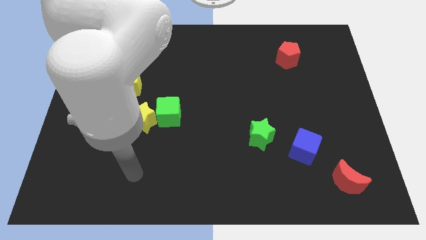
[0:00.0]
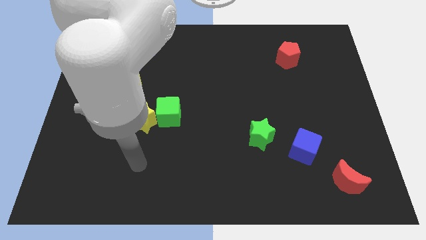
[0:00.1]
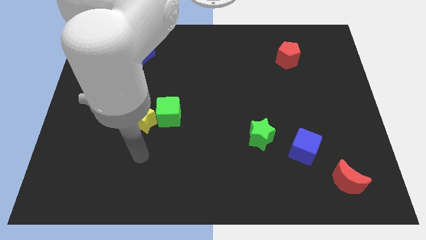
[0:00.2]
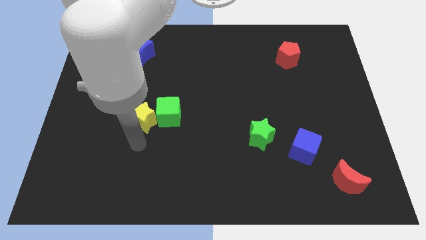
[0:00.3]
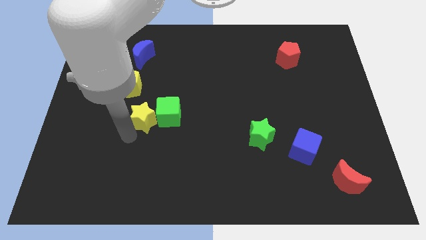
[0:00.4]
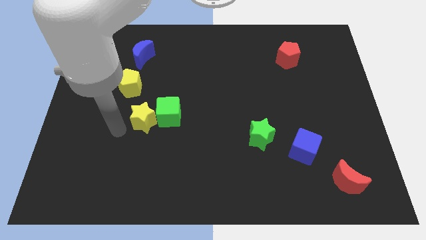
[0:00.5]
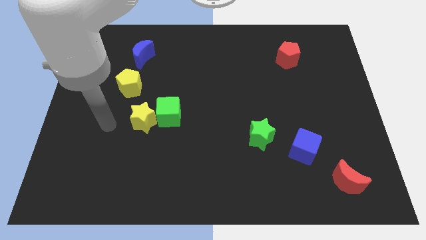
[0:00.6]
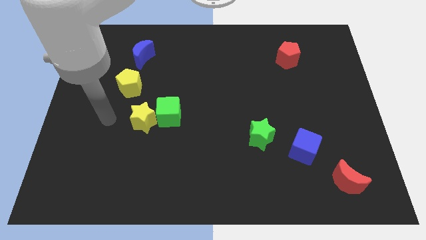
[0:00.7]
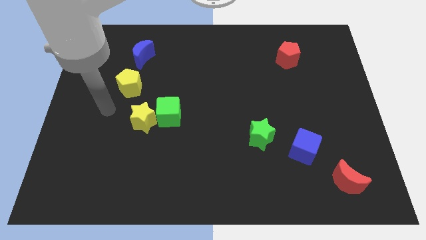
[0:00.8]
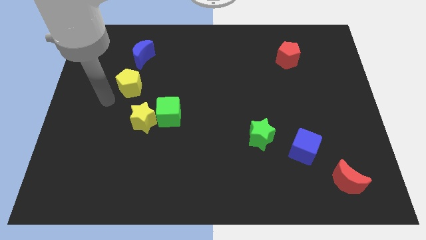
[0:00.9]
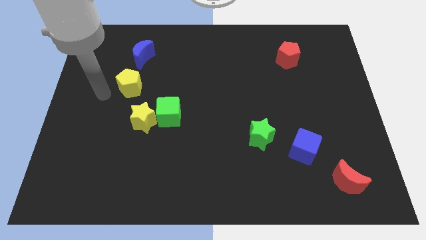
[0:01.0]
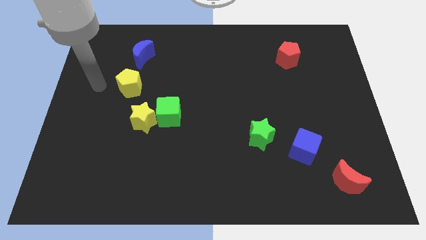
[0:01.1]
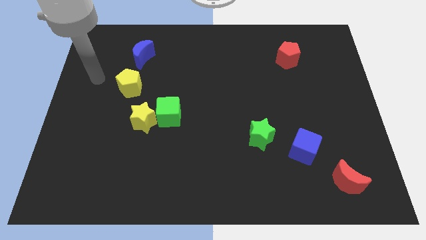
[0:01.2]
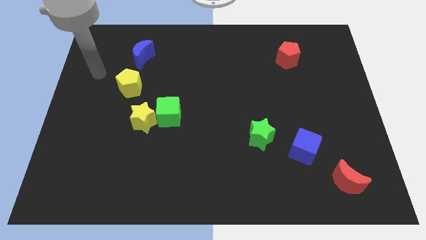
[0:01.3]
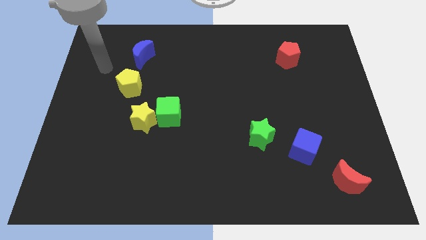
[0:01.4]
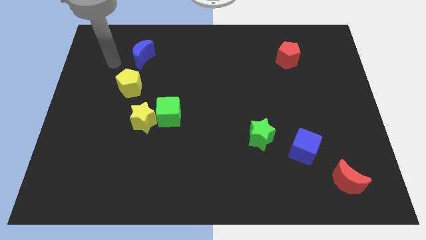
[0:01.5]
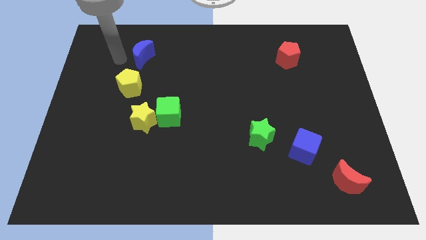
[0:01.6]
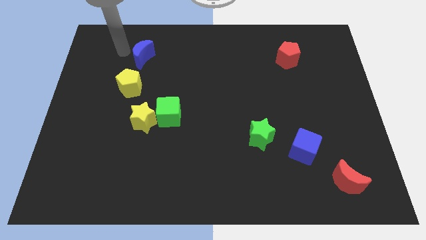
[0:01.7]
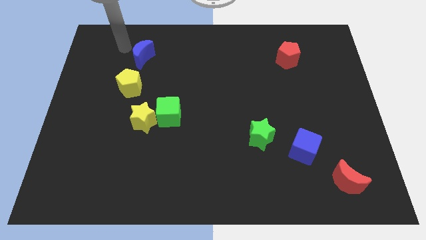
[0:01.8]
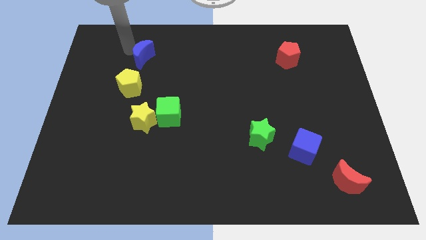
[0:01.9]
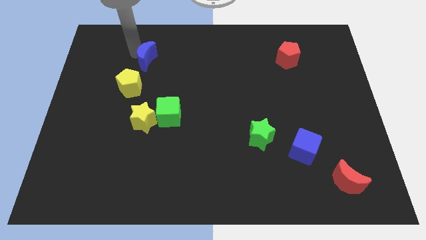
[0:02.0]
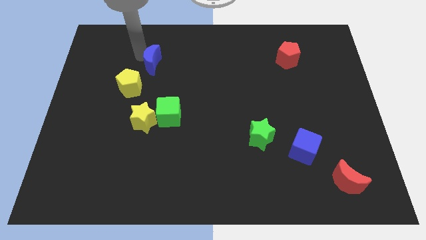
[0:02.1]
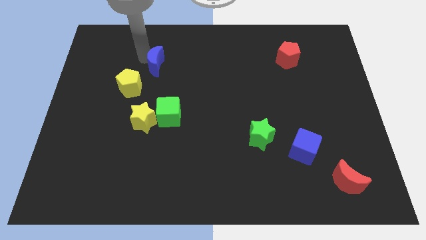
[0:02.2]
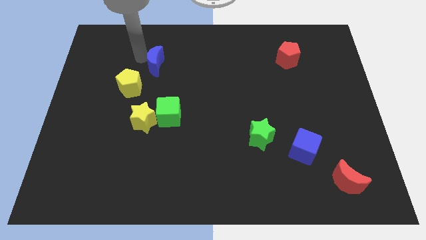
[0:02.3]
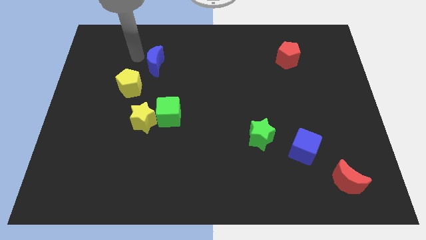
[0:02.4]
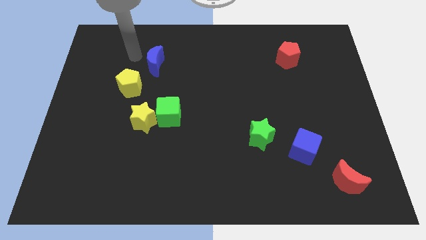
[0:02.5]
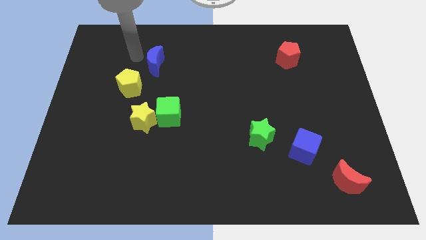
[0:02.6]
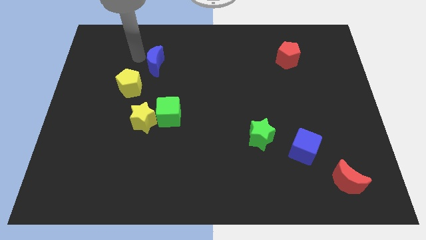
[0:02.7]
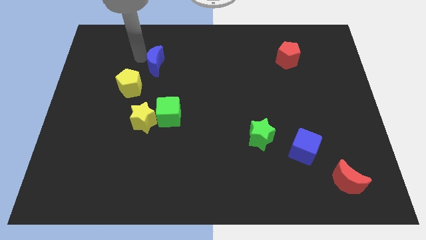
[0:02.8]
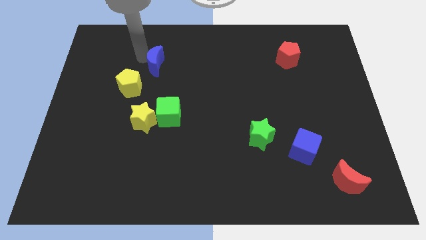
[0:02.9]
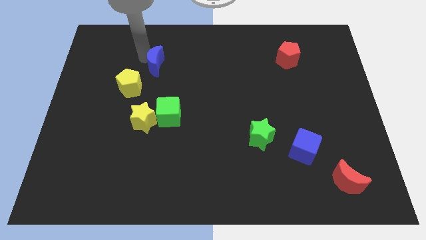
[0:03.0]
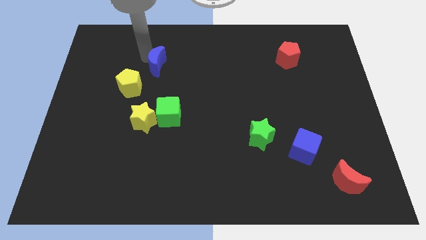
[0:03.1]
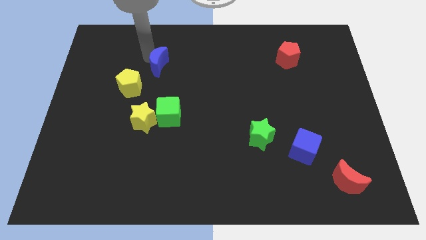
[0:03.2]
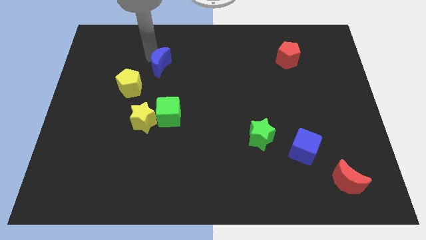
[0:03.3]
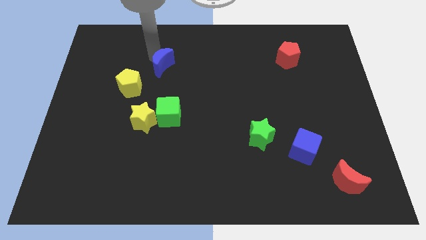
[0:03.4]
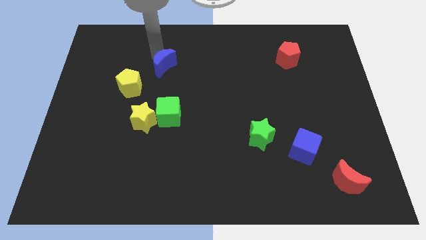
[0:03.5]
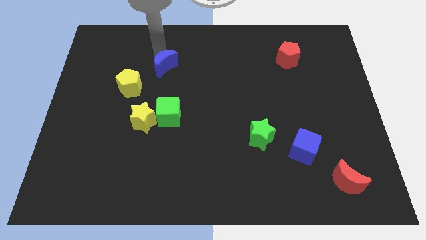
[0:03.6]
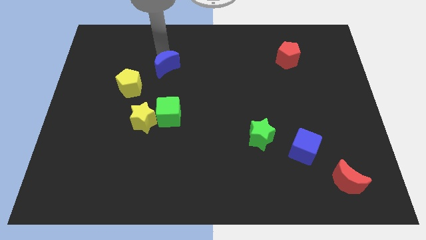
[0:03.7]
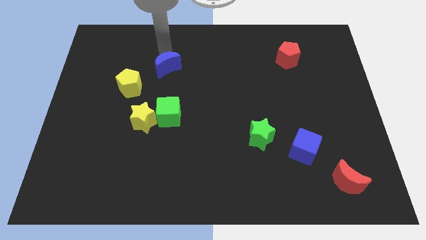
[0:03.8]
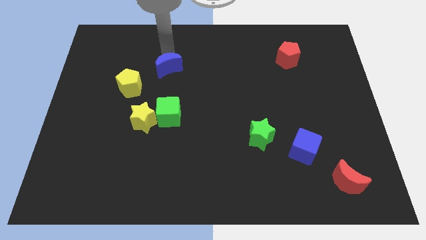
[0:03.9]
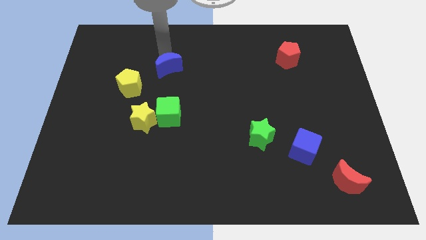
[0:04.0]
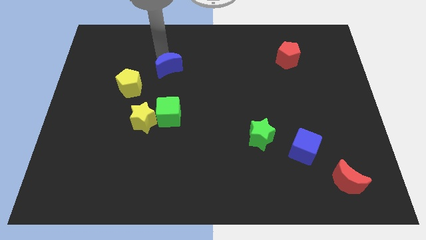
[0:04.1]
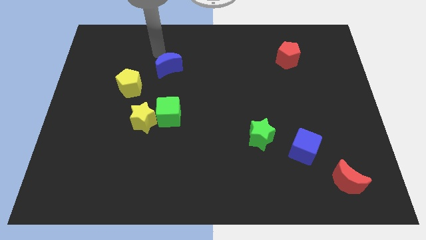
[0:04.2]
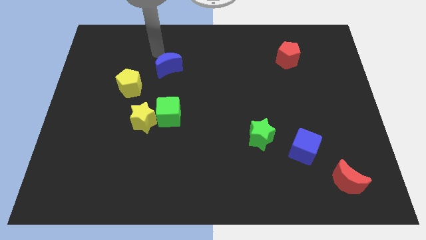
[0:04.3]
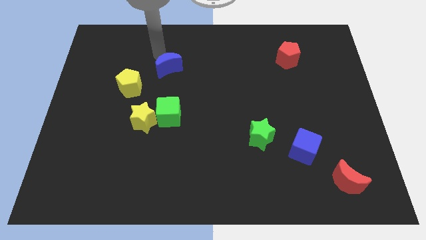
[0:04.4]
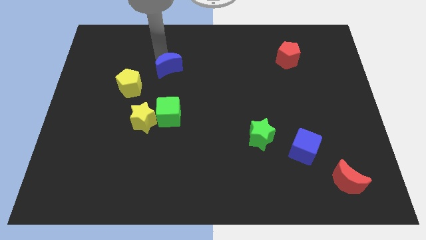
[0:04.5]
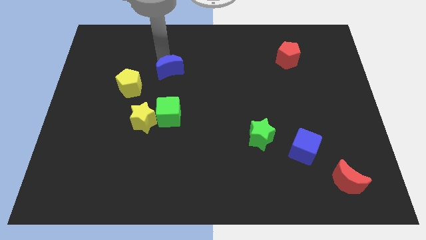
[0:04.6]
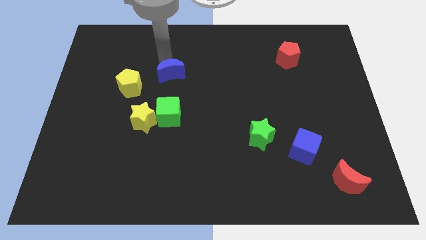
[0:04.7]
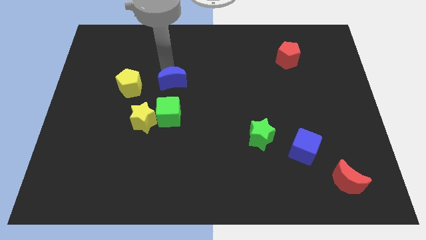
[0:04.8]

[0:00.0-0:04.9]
slide the blue moon to the middle of the board

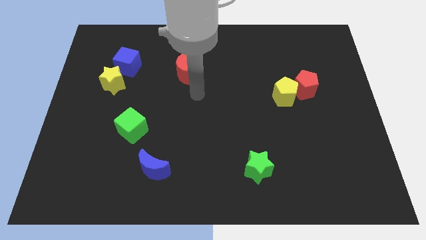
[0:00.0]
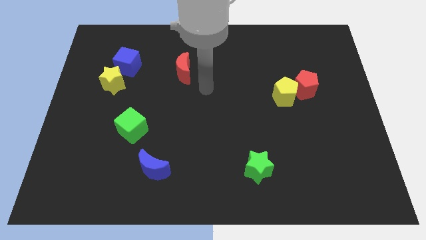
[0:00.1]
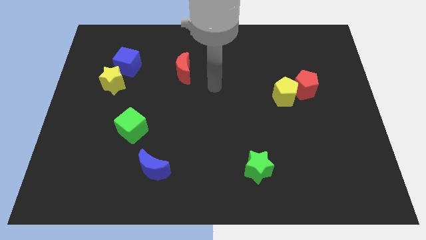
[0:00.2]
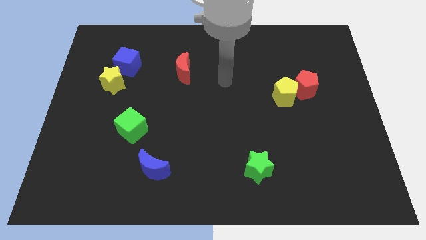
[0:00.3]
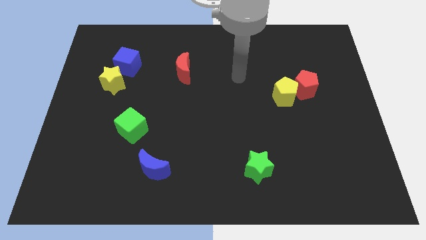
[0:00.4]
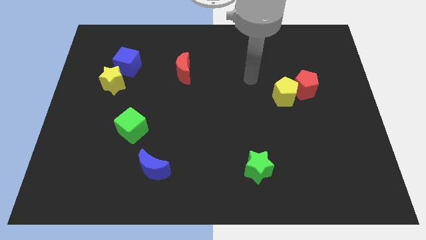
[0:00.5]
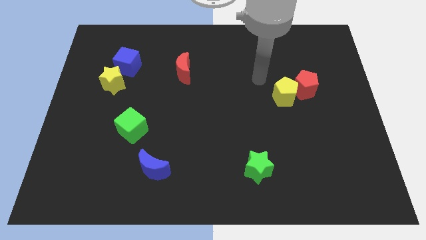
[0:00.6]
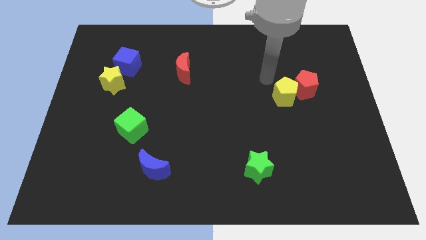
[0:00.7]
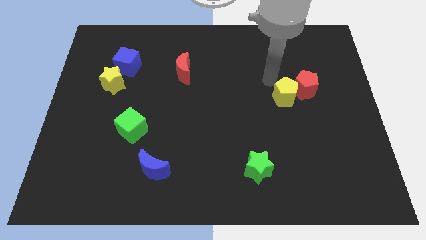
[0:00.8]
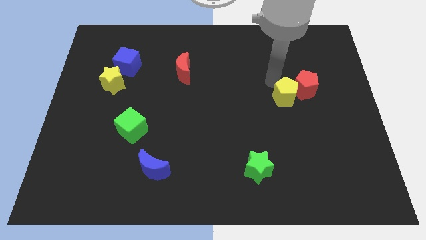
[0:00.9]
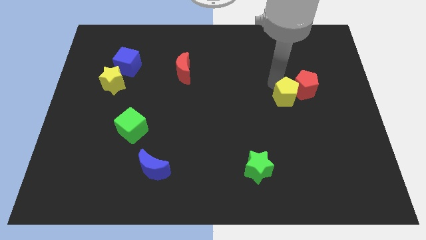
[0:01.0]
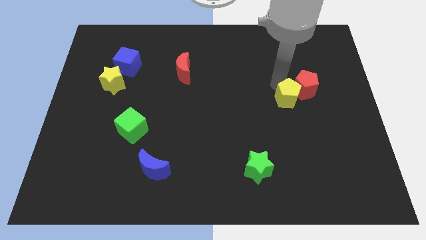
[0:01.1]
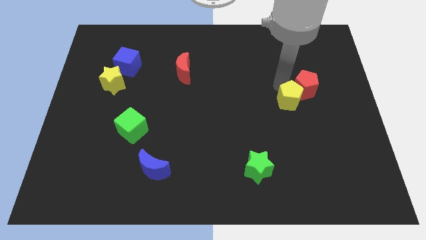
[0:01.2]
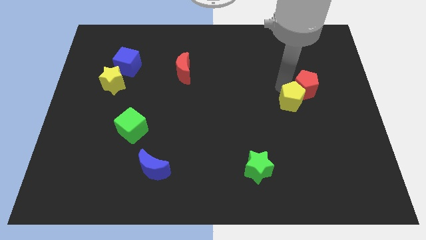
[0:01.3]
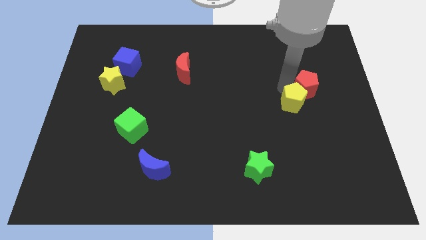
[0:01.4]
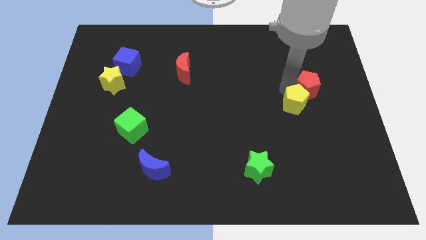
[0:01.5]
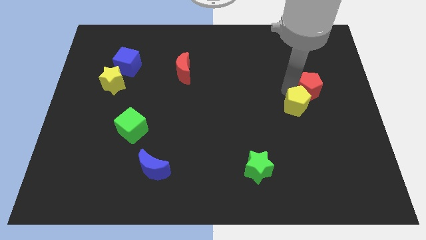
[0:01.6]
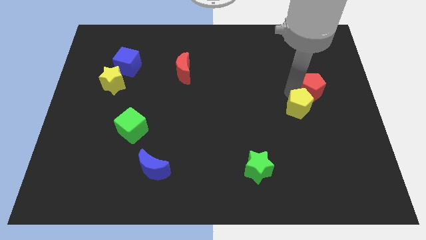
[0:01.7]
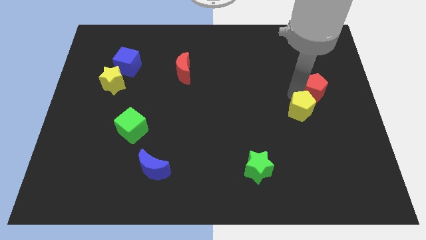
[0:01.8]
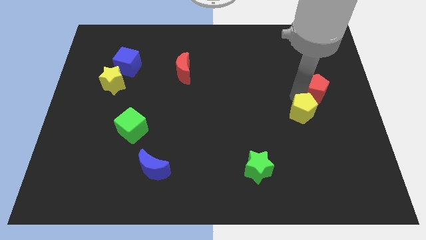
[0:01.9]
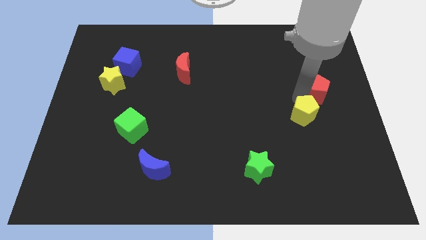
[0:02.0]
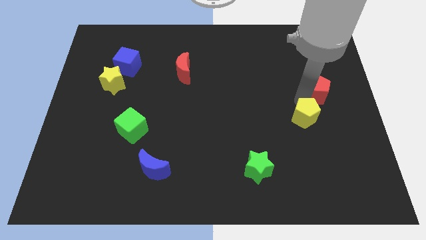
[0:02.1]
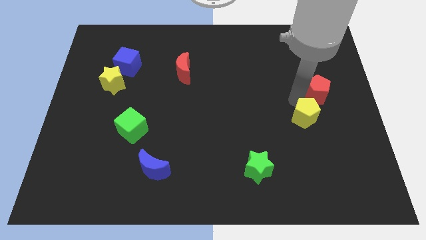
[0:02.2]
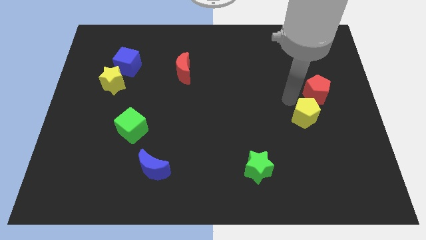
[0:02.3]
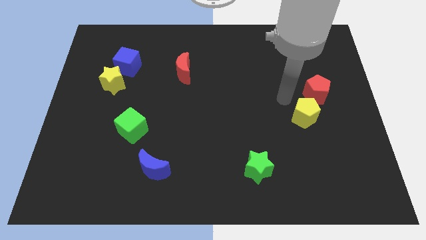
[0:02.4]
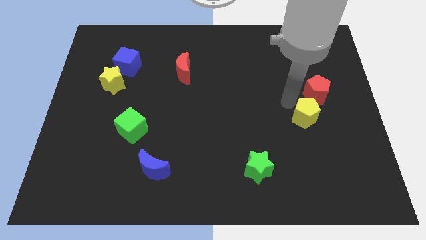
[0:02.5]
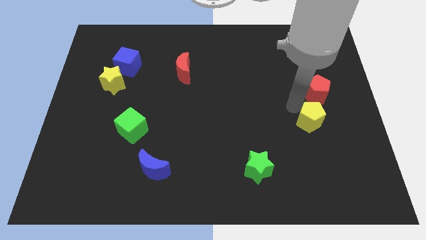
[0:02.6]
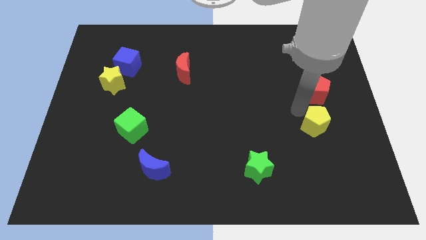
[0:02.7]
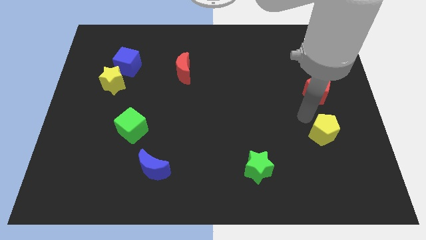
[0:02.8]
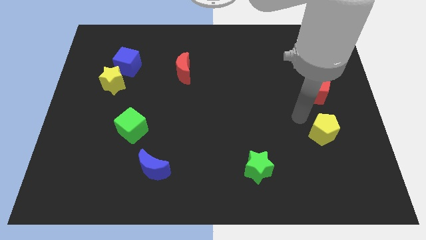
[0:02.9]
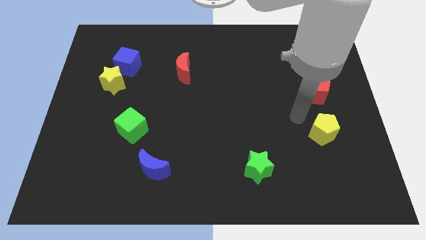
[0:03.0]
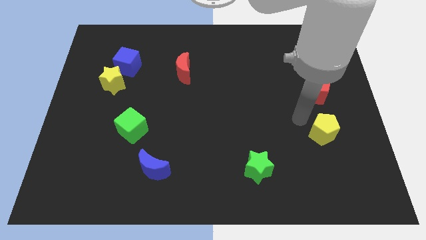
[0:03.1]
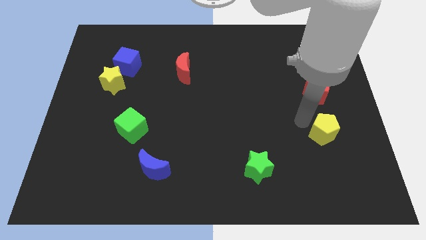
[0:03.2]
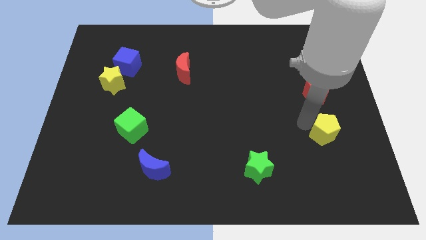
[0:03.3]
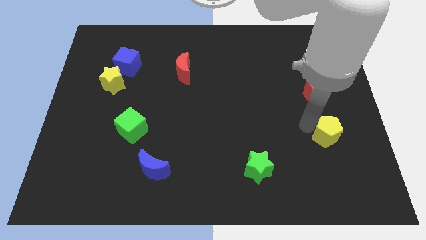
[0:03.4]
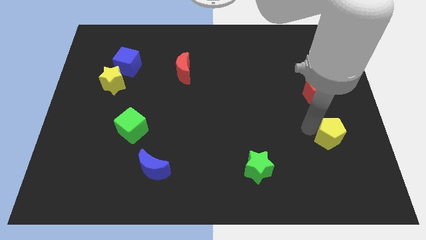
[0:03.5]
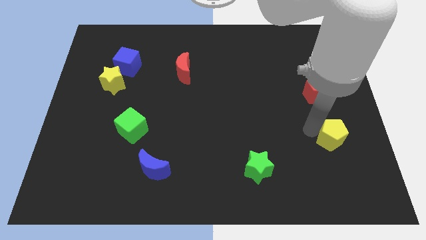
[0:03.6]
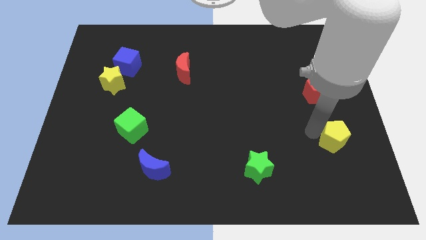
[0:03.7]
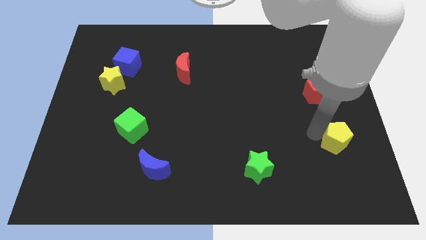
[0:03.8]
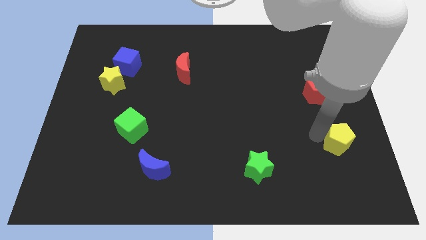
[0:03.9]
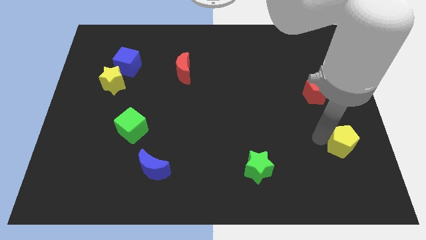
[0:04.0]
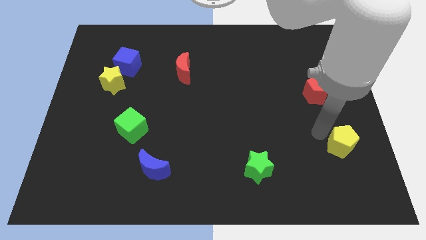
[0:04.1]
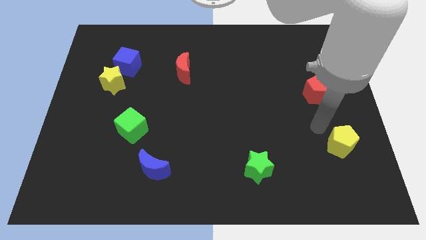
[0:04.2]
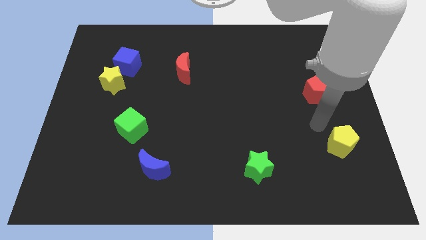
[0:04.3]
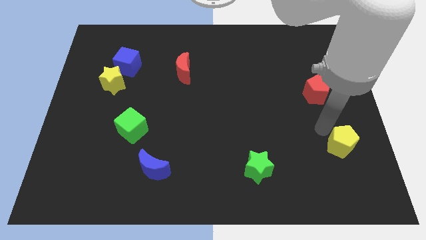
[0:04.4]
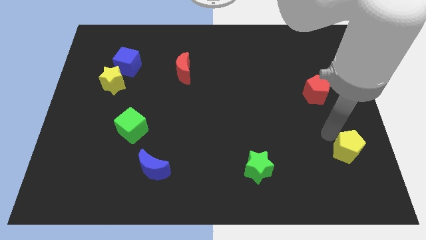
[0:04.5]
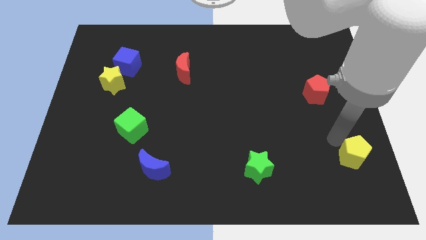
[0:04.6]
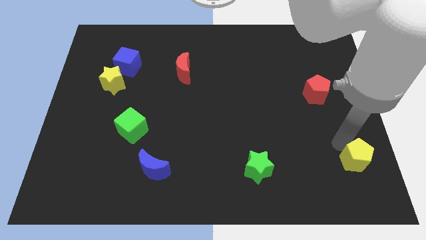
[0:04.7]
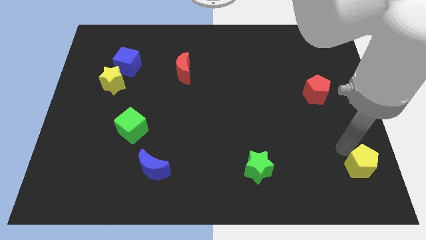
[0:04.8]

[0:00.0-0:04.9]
move the yellow pentagon to the bottom right of the board
